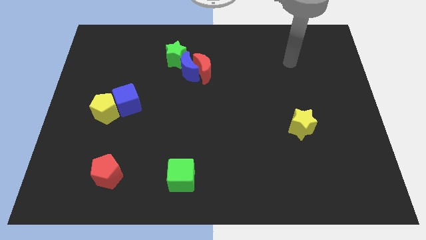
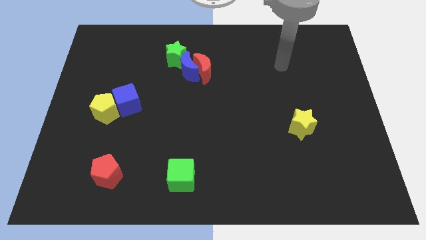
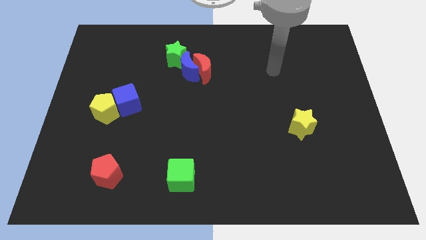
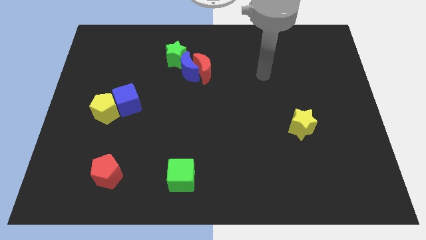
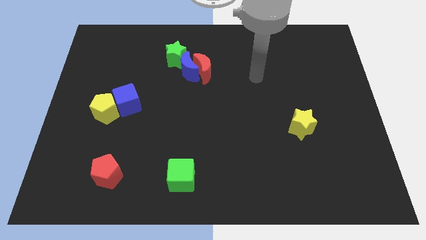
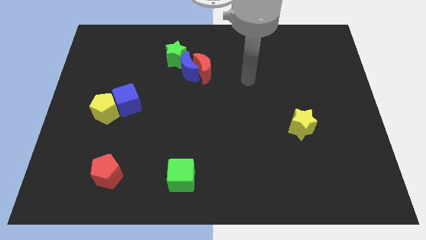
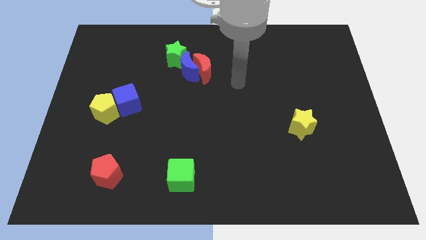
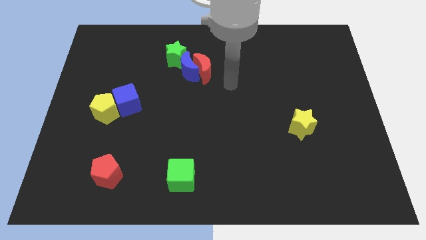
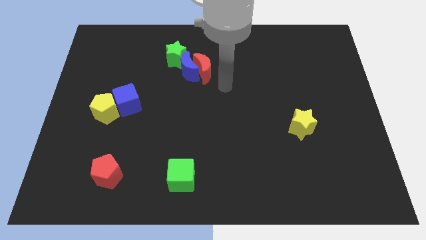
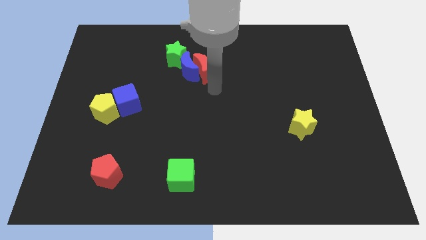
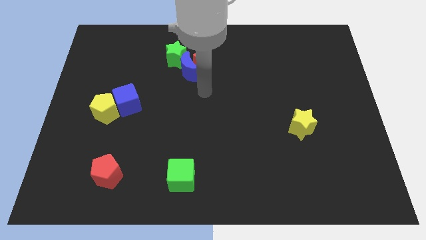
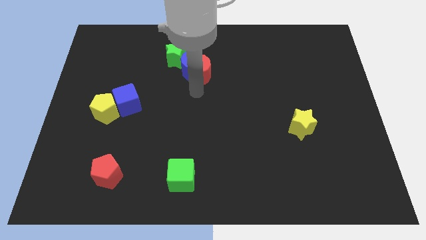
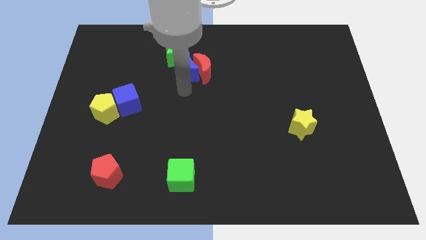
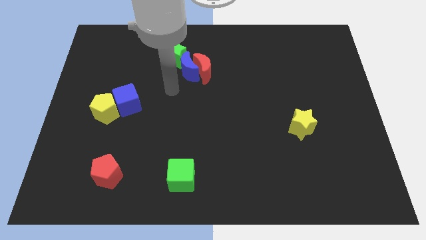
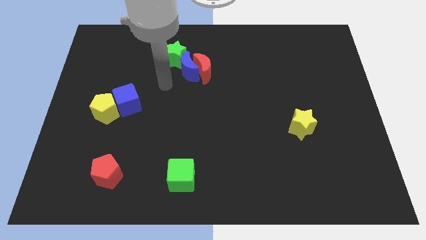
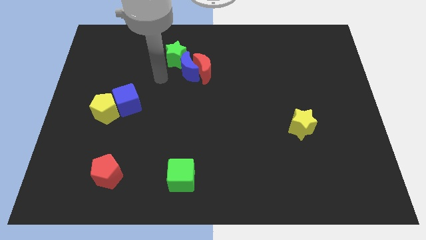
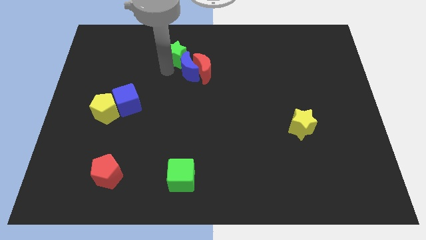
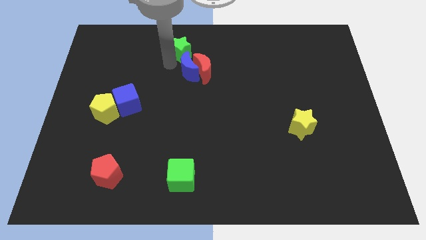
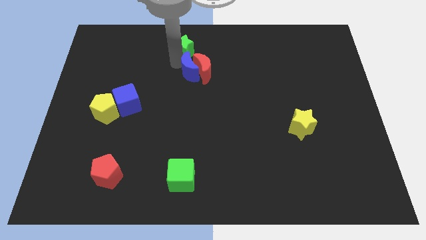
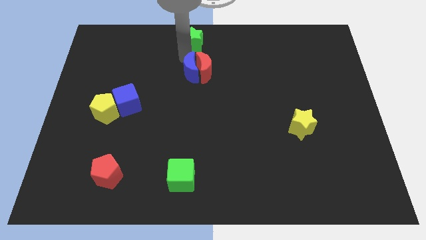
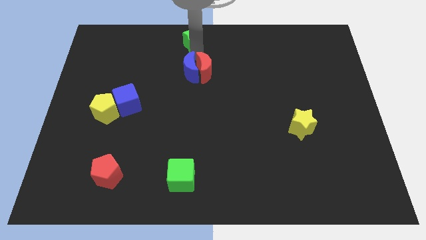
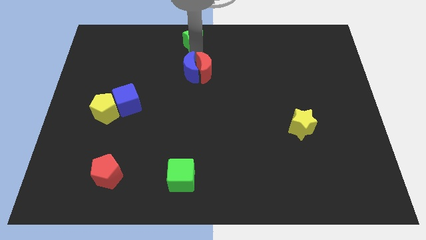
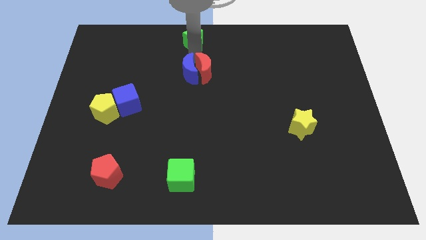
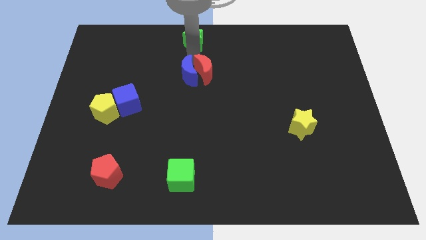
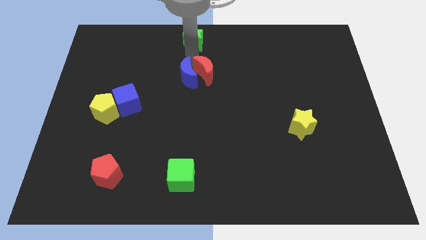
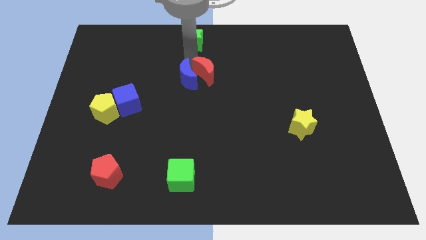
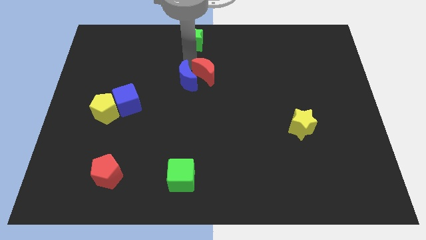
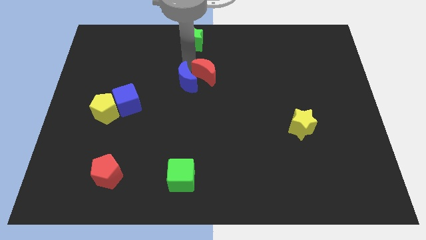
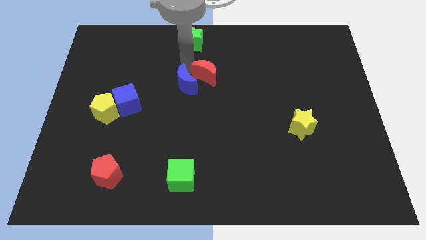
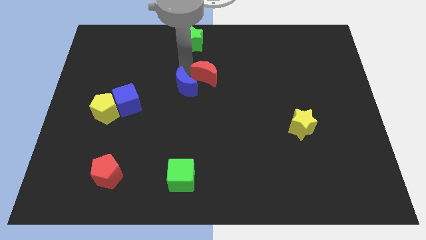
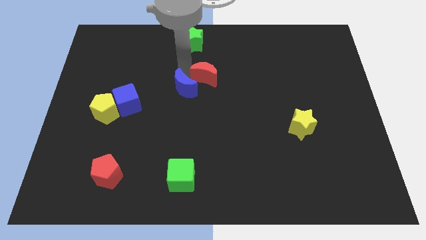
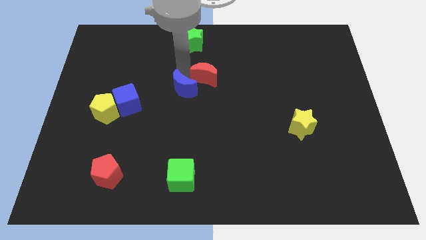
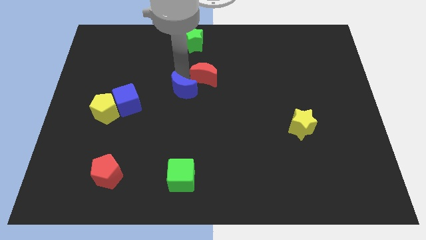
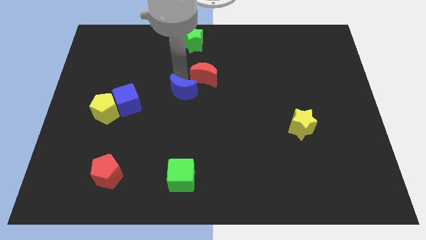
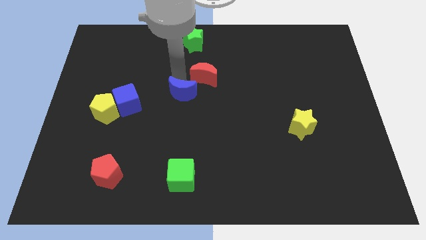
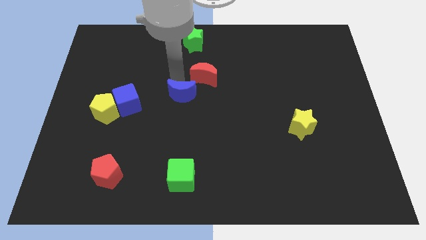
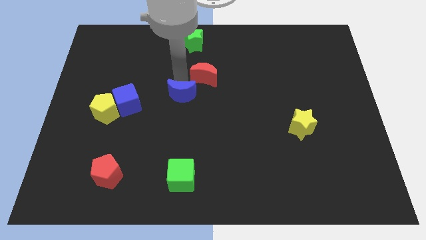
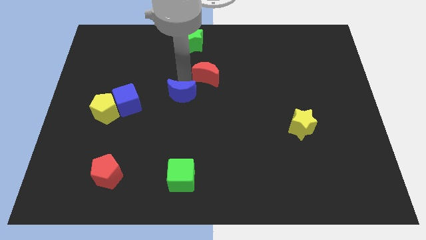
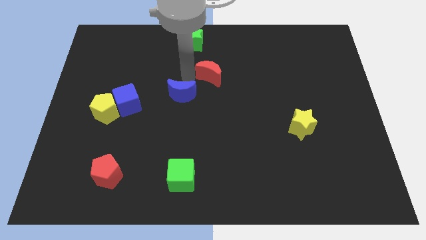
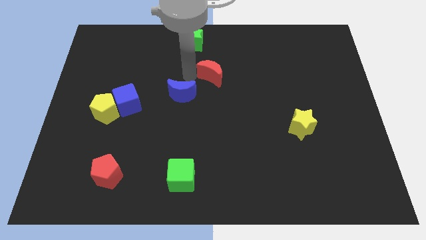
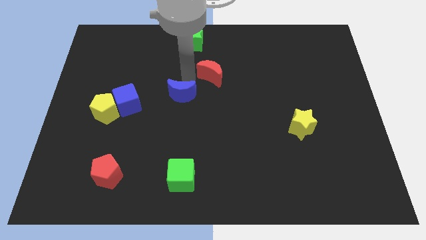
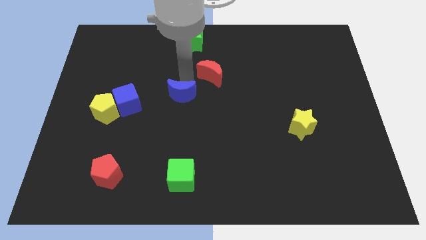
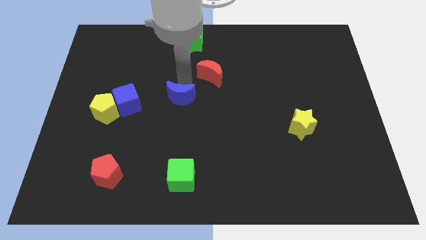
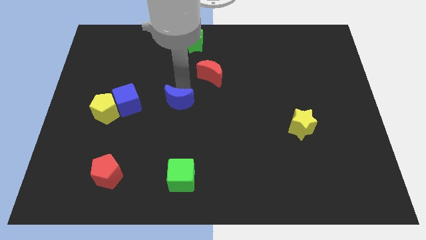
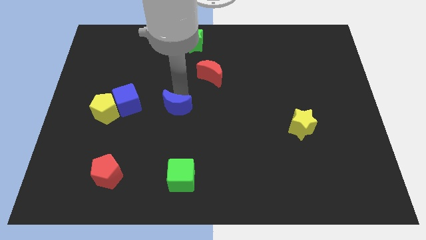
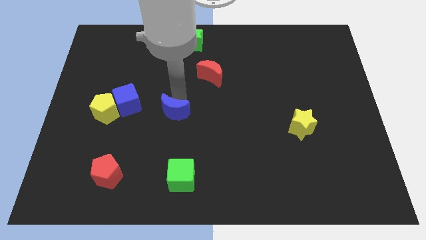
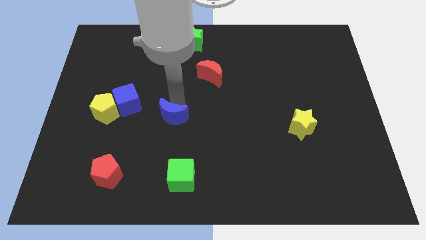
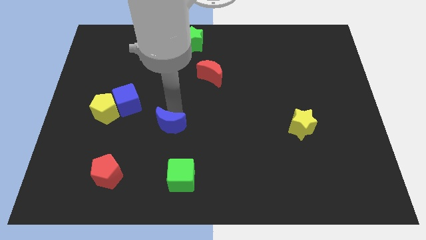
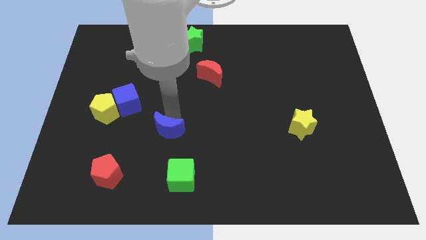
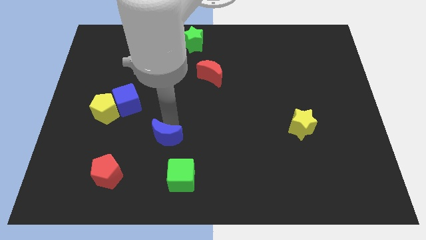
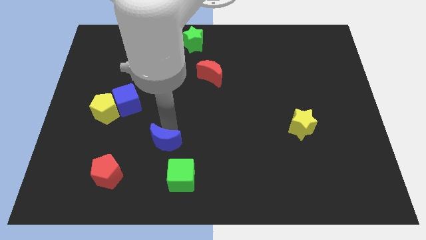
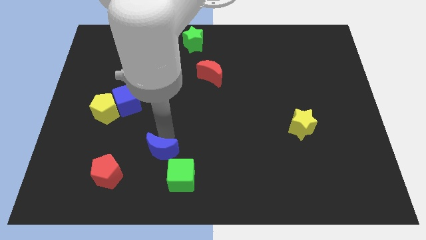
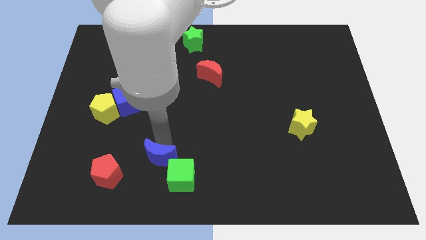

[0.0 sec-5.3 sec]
push the blue moon to the right side of the red pentagon
